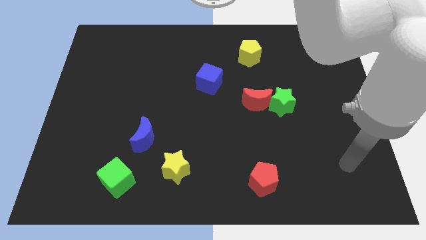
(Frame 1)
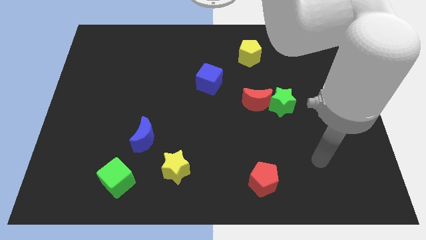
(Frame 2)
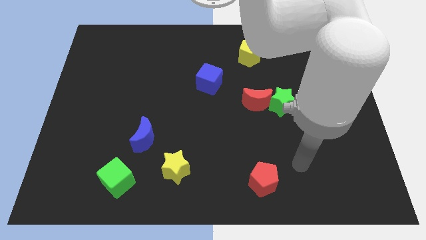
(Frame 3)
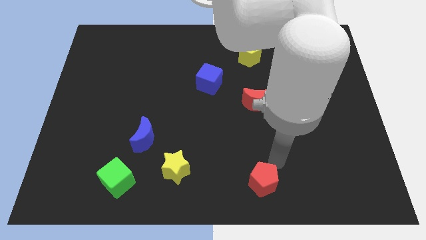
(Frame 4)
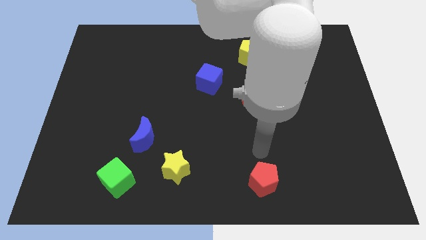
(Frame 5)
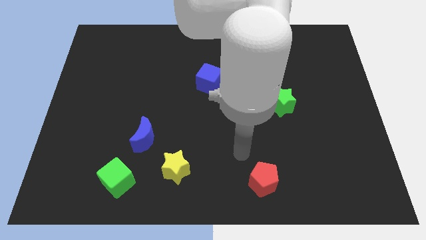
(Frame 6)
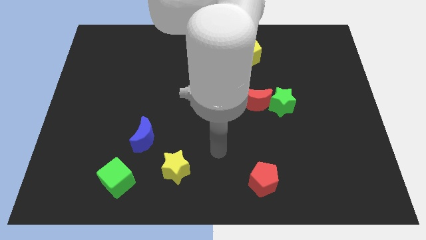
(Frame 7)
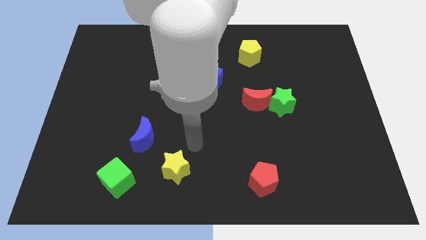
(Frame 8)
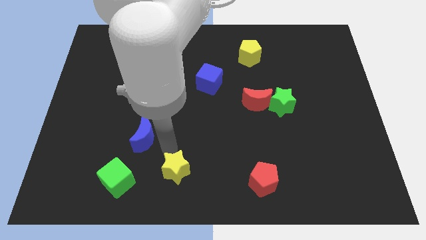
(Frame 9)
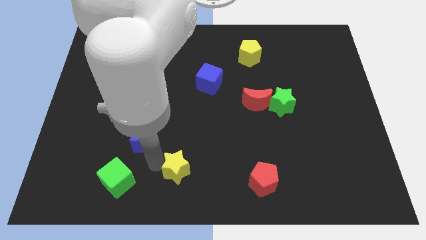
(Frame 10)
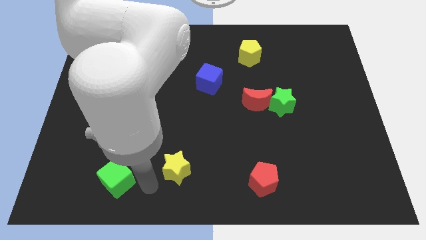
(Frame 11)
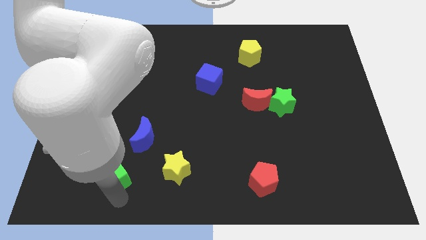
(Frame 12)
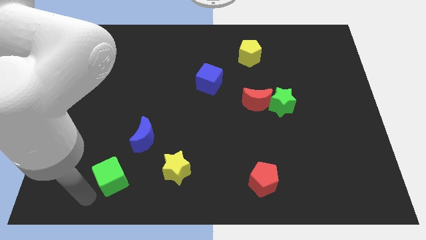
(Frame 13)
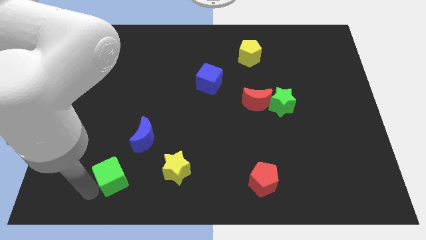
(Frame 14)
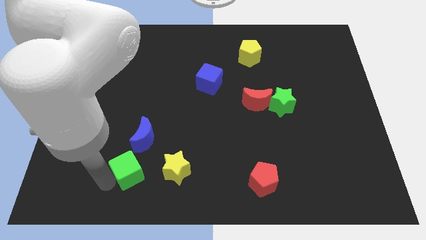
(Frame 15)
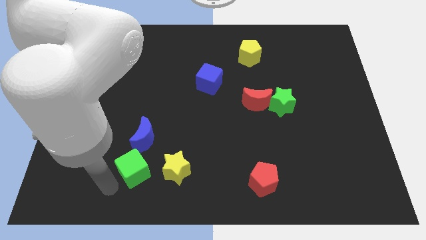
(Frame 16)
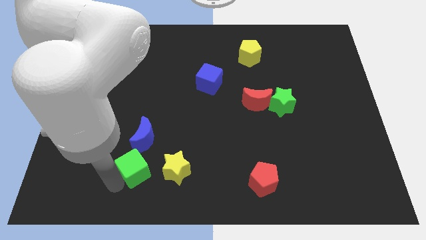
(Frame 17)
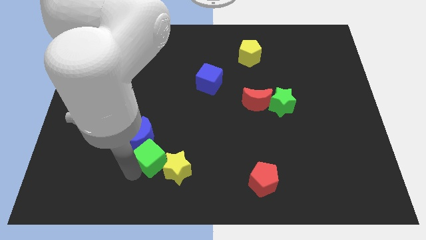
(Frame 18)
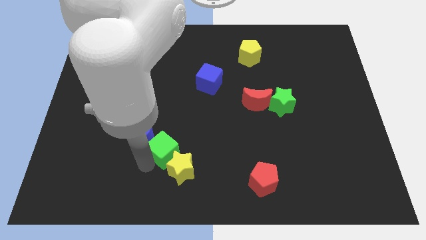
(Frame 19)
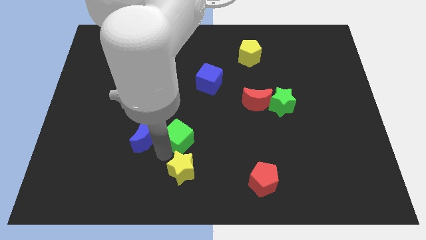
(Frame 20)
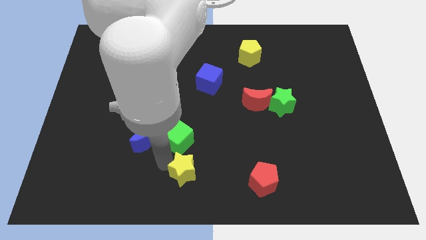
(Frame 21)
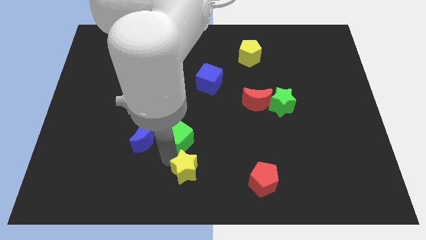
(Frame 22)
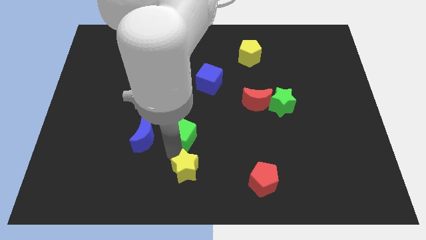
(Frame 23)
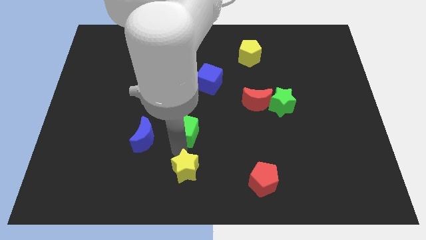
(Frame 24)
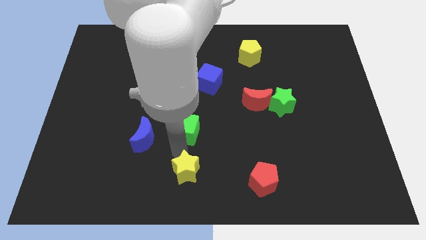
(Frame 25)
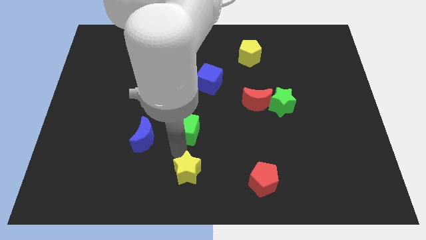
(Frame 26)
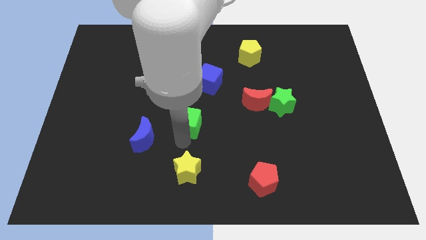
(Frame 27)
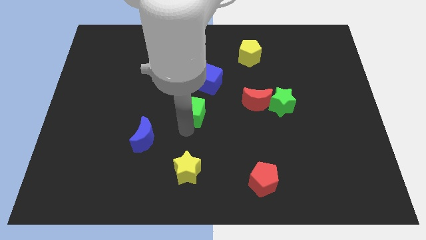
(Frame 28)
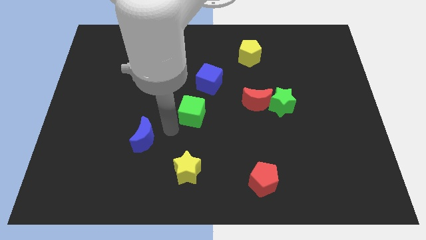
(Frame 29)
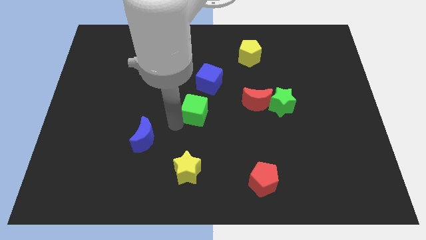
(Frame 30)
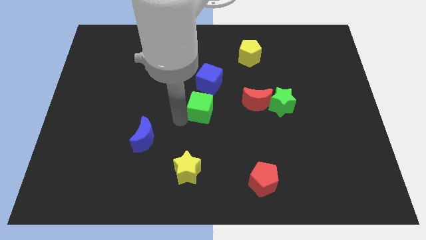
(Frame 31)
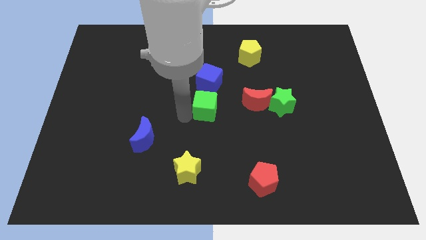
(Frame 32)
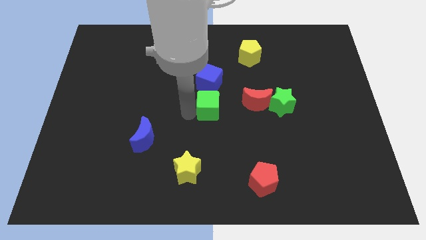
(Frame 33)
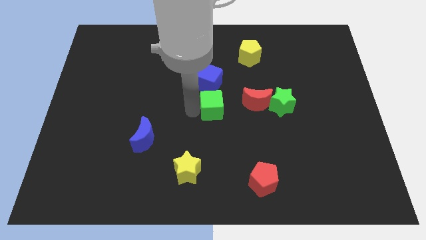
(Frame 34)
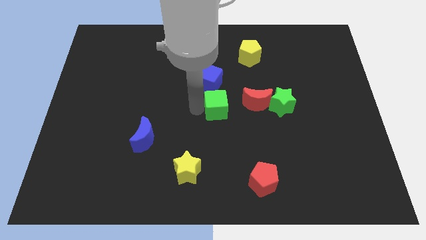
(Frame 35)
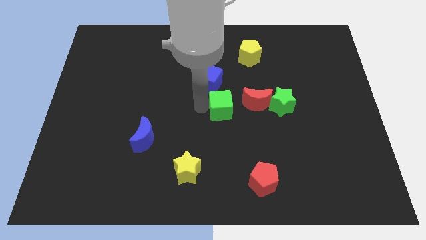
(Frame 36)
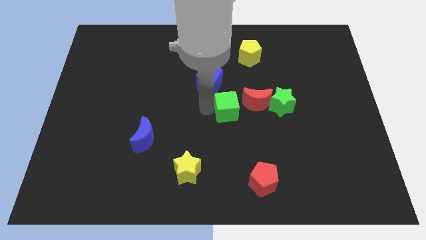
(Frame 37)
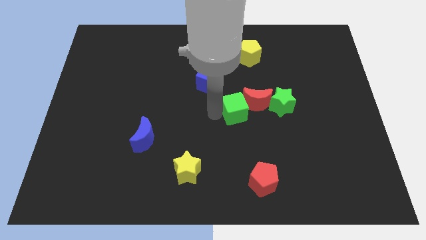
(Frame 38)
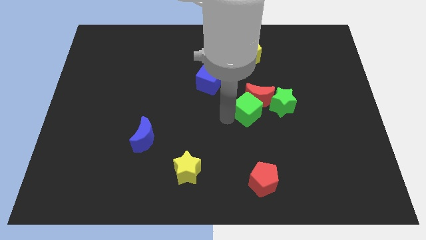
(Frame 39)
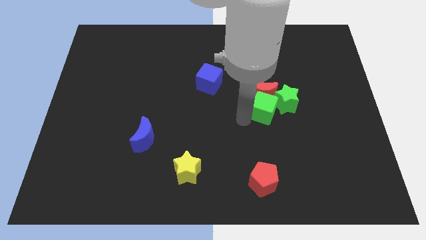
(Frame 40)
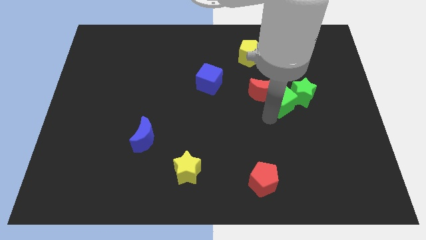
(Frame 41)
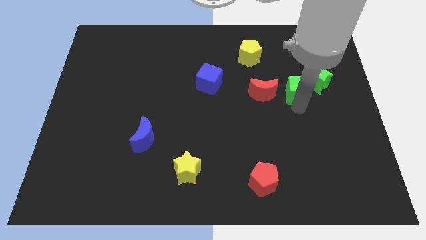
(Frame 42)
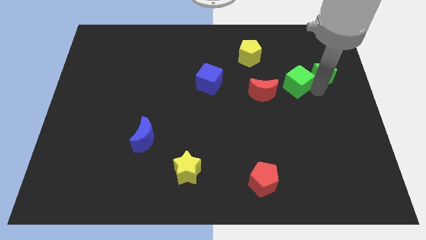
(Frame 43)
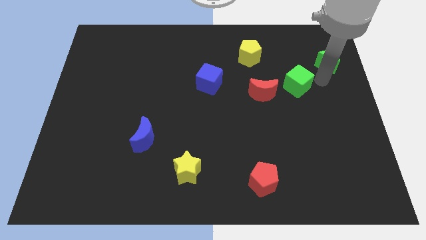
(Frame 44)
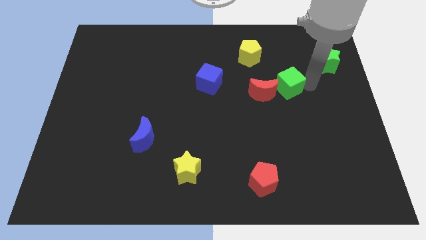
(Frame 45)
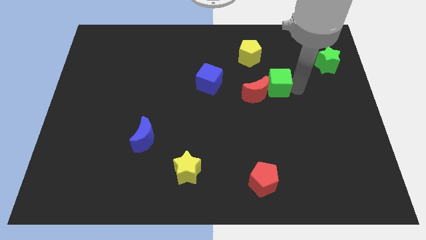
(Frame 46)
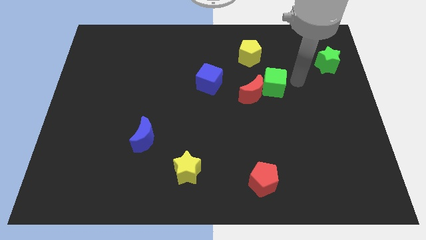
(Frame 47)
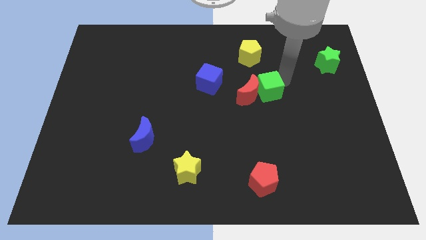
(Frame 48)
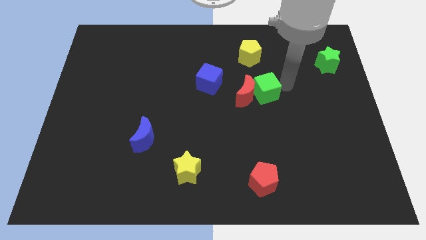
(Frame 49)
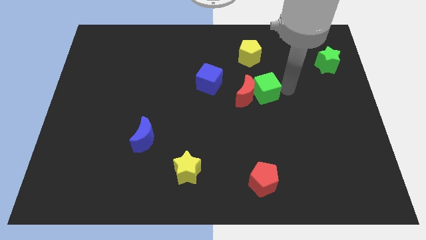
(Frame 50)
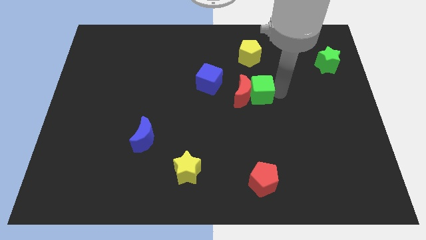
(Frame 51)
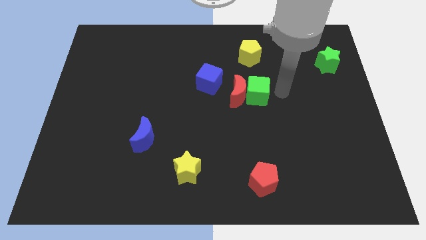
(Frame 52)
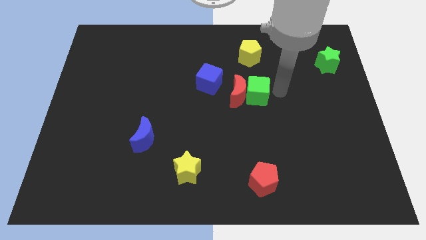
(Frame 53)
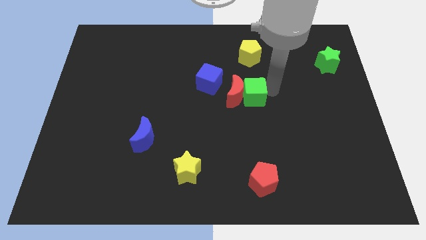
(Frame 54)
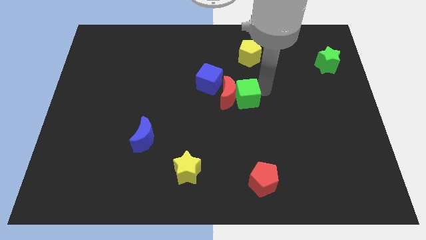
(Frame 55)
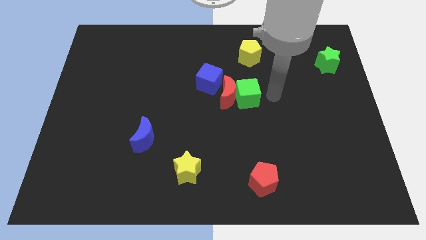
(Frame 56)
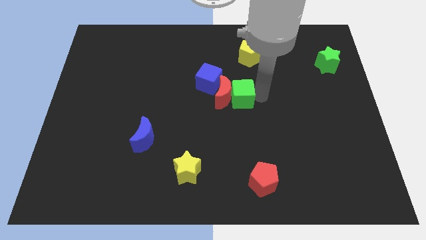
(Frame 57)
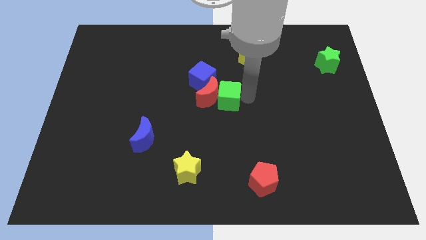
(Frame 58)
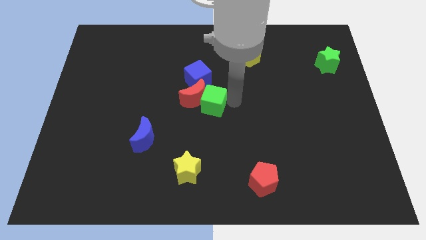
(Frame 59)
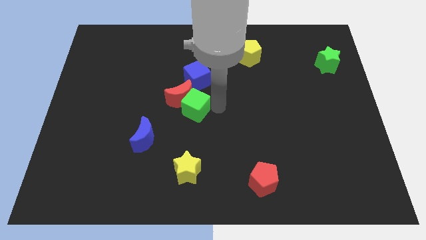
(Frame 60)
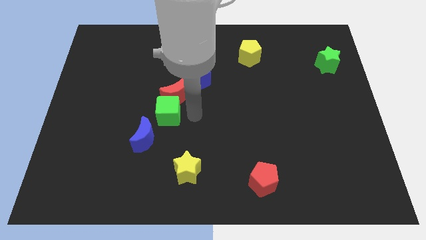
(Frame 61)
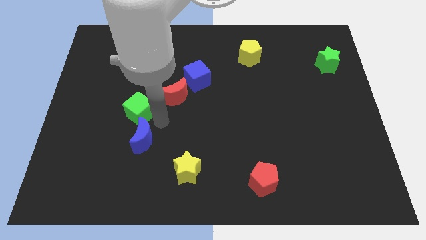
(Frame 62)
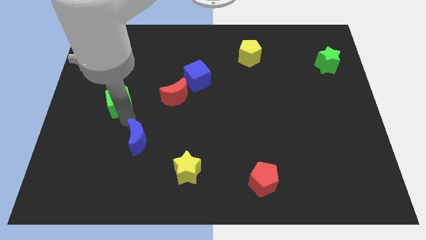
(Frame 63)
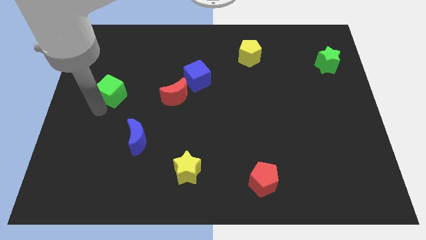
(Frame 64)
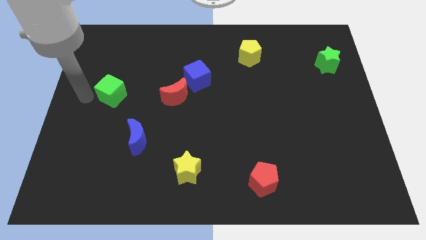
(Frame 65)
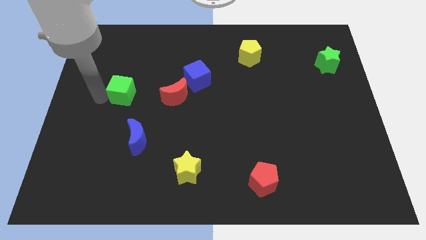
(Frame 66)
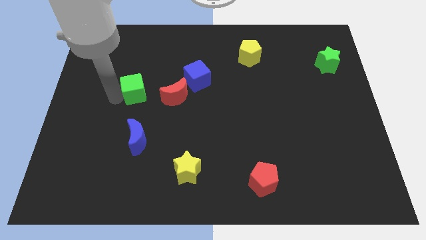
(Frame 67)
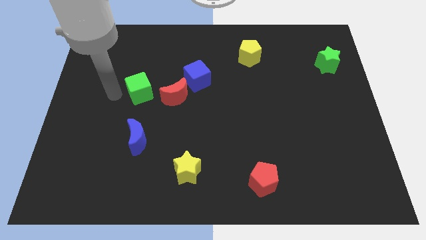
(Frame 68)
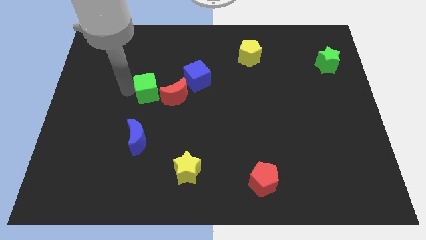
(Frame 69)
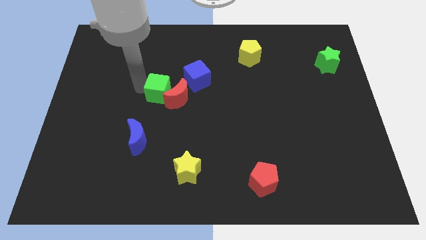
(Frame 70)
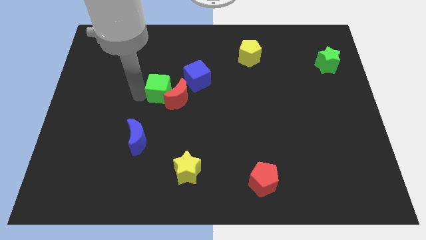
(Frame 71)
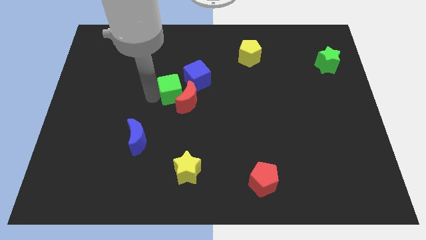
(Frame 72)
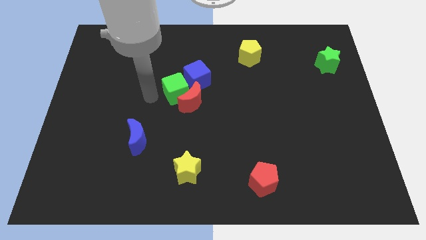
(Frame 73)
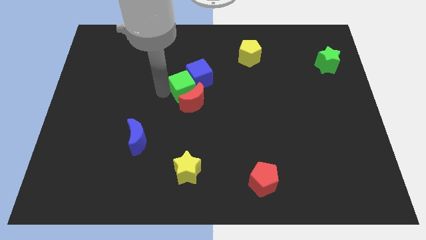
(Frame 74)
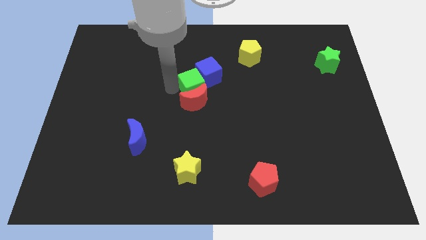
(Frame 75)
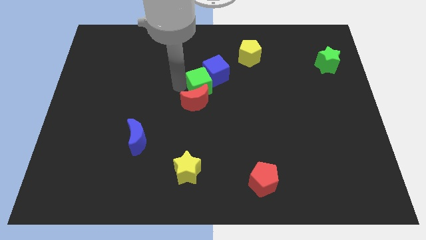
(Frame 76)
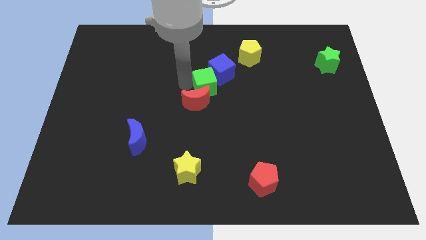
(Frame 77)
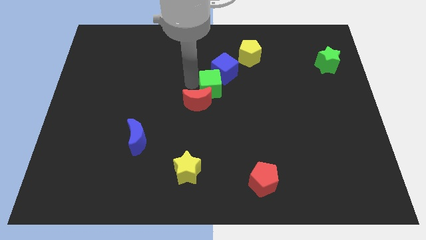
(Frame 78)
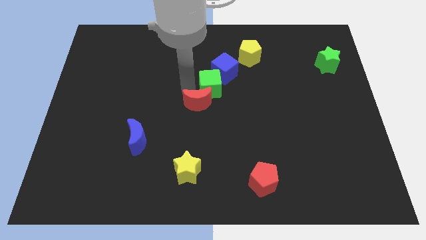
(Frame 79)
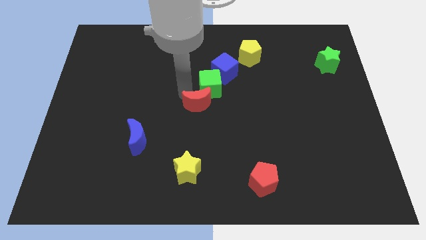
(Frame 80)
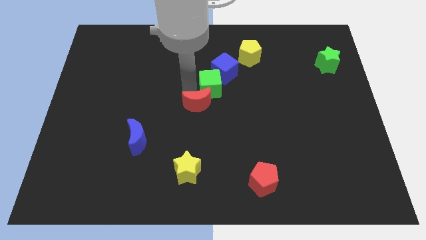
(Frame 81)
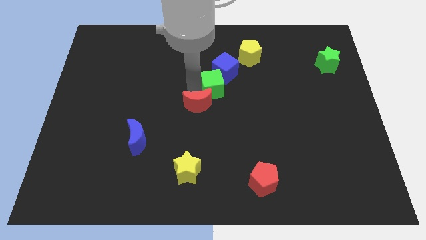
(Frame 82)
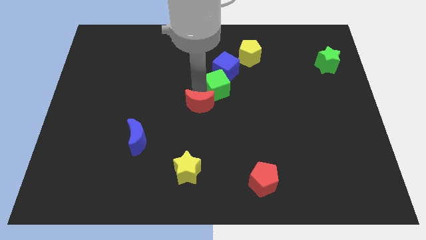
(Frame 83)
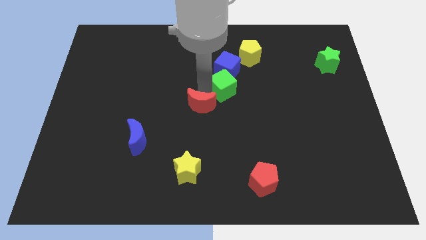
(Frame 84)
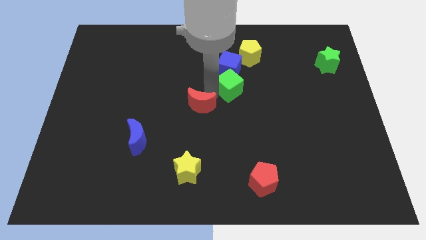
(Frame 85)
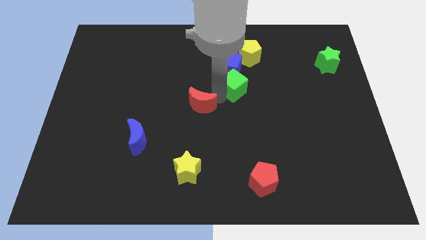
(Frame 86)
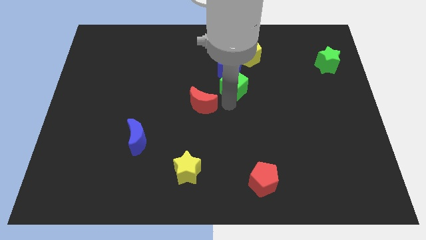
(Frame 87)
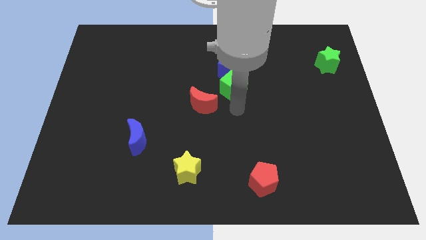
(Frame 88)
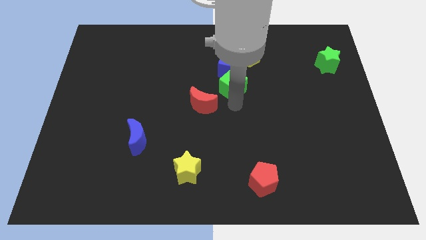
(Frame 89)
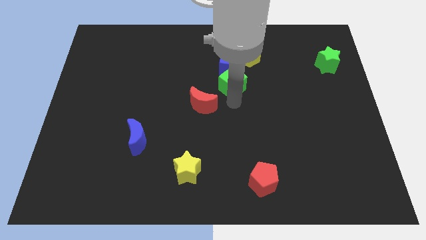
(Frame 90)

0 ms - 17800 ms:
push the green cube diagonally down and to the left of the yellow pentagon
